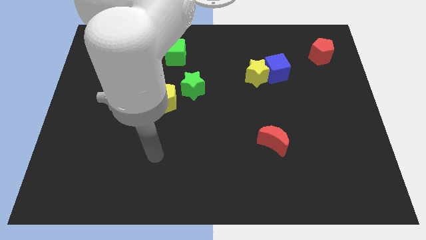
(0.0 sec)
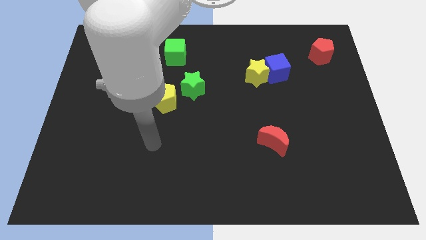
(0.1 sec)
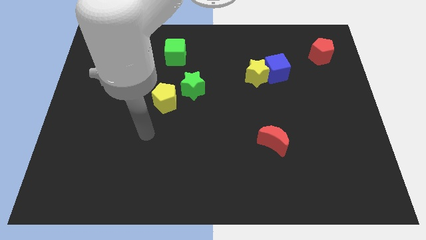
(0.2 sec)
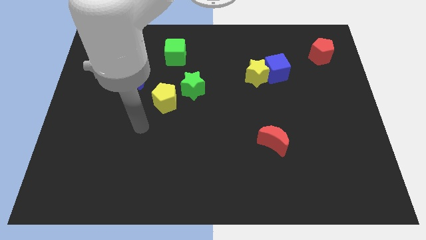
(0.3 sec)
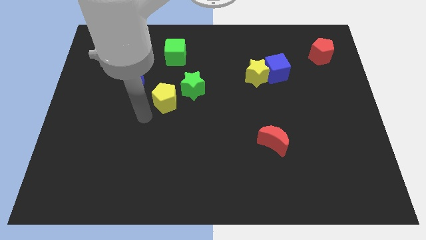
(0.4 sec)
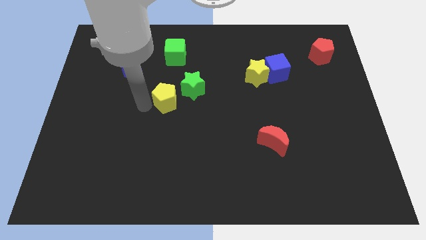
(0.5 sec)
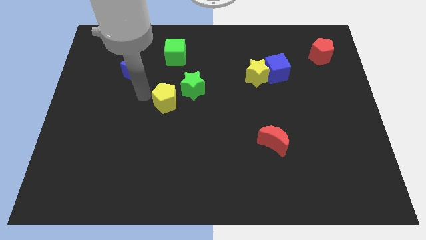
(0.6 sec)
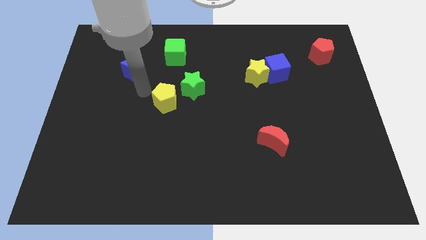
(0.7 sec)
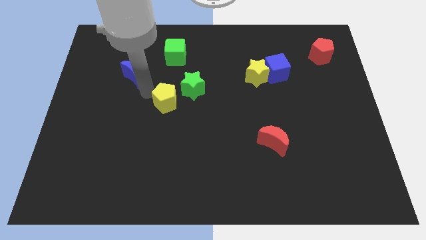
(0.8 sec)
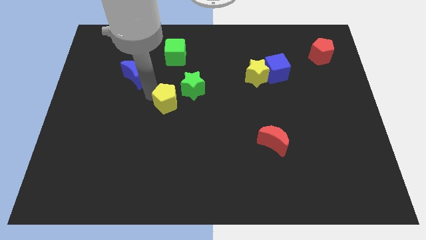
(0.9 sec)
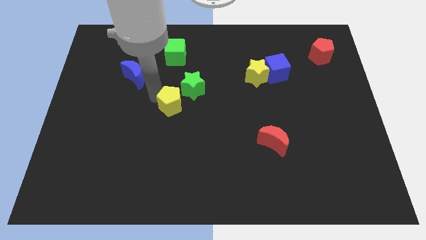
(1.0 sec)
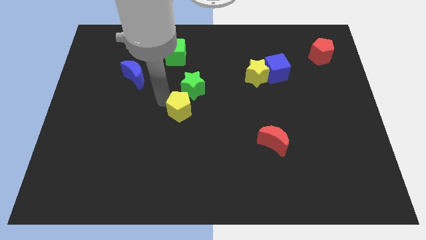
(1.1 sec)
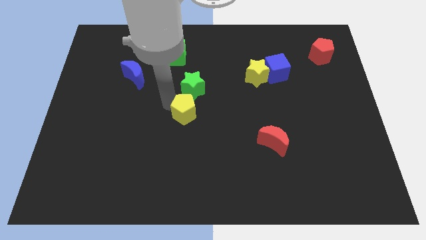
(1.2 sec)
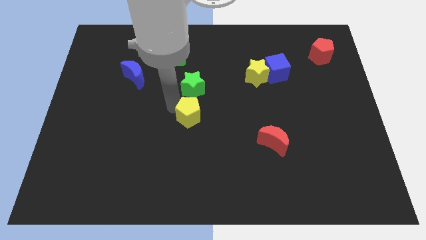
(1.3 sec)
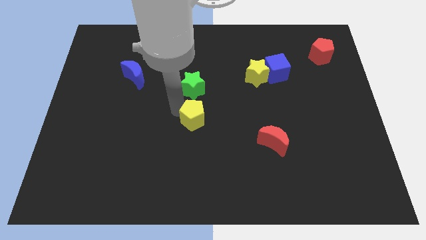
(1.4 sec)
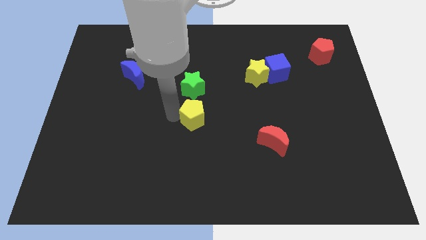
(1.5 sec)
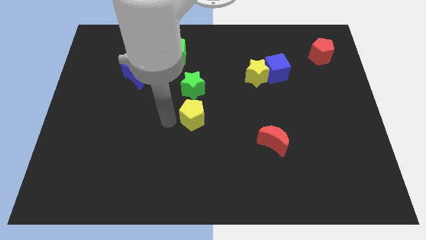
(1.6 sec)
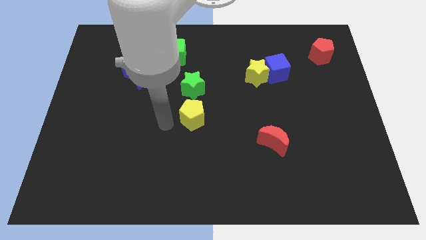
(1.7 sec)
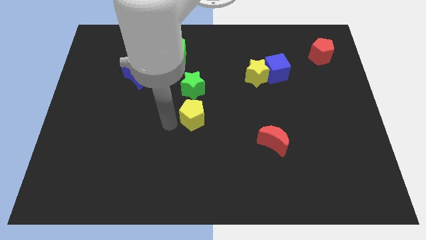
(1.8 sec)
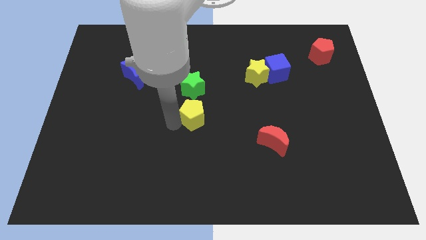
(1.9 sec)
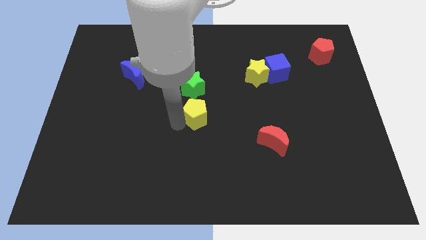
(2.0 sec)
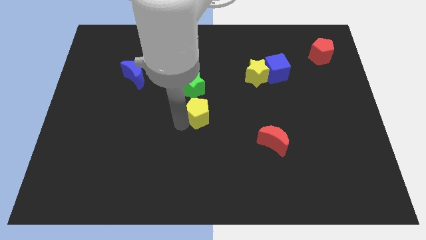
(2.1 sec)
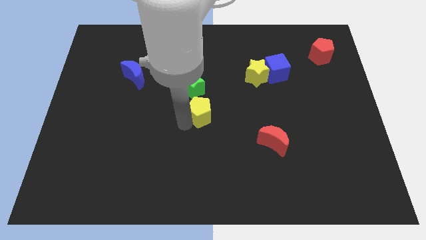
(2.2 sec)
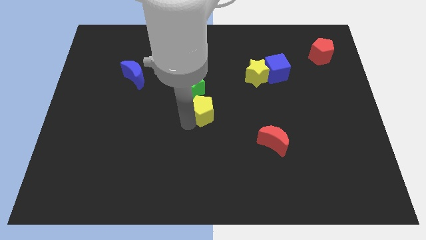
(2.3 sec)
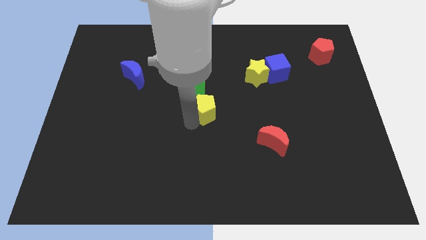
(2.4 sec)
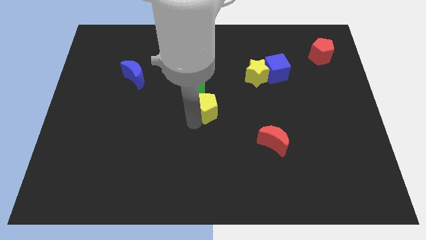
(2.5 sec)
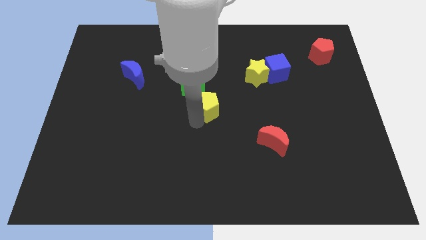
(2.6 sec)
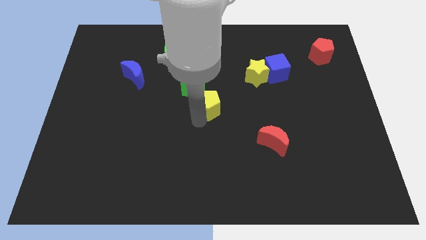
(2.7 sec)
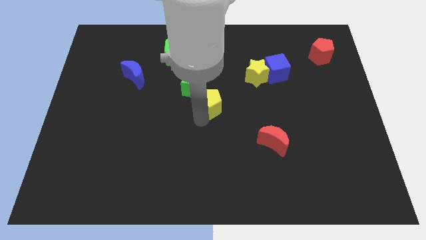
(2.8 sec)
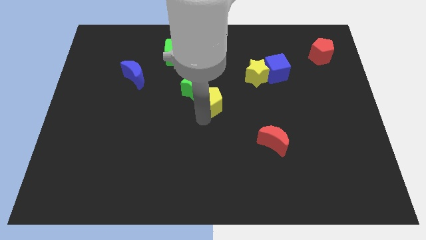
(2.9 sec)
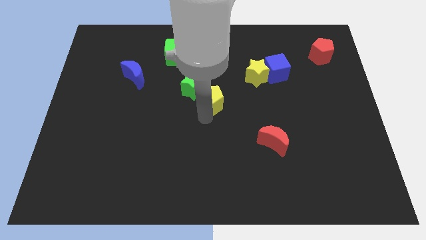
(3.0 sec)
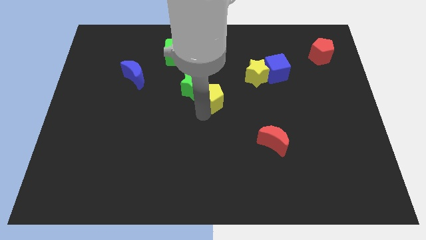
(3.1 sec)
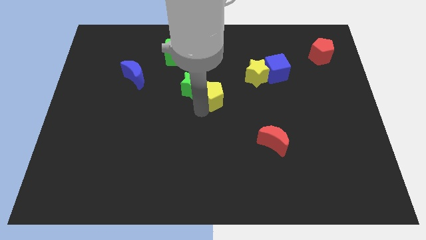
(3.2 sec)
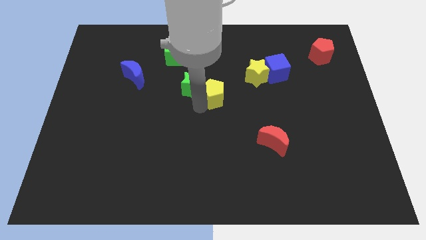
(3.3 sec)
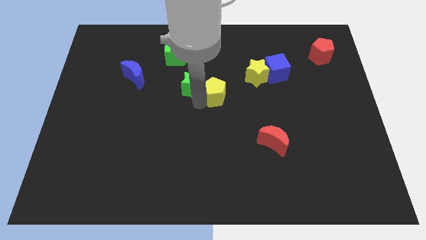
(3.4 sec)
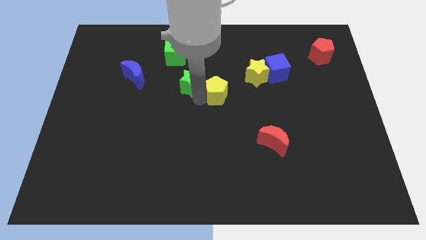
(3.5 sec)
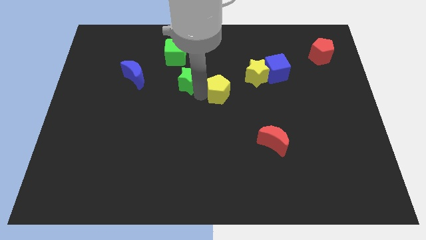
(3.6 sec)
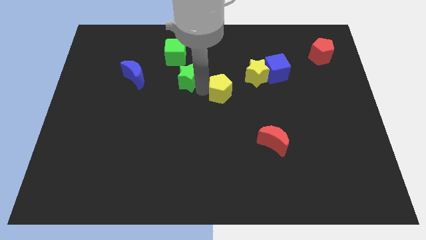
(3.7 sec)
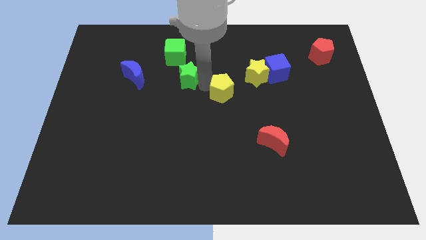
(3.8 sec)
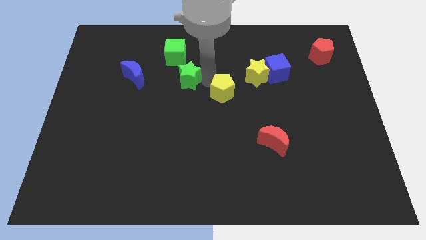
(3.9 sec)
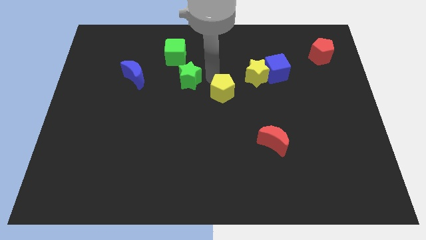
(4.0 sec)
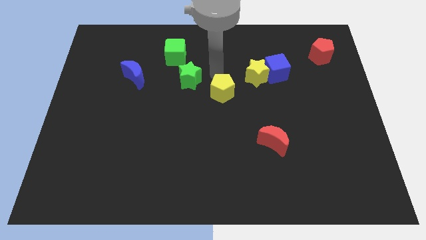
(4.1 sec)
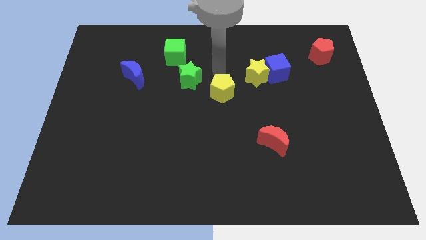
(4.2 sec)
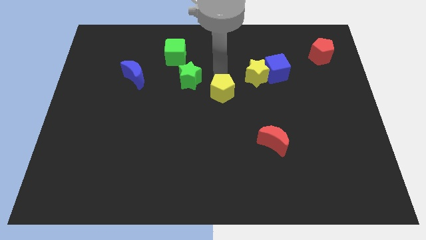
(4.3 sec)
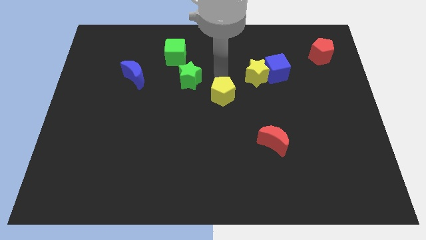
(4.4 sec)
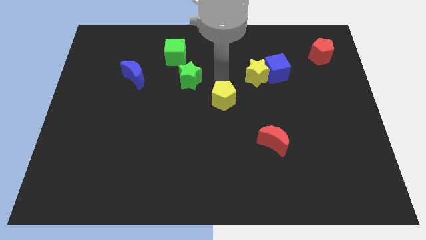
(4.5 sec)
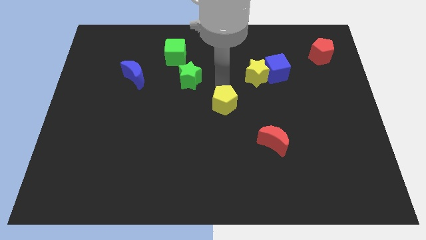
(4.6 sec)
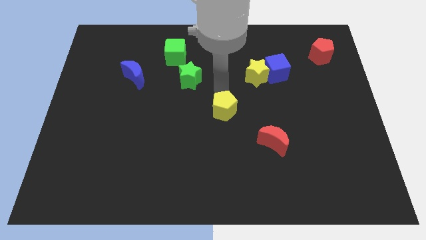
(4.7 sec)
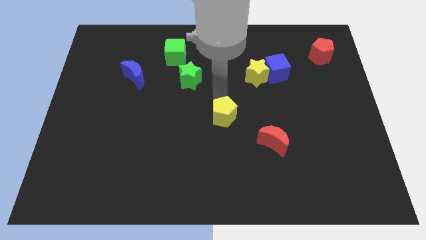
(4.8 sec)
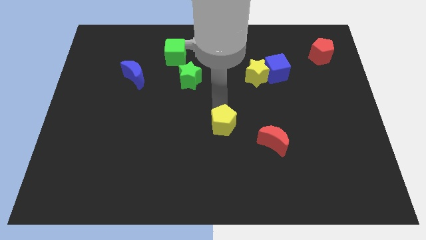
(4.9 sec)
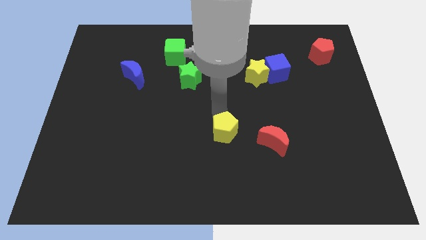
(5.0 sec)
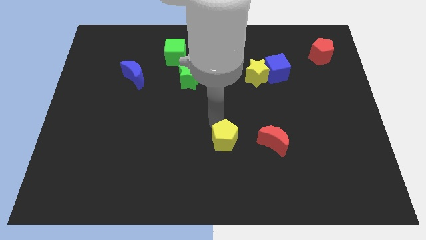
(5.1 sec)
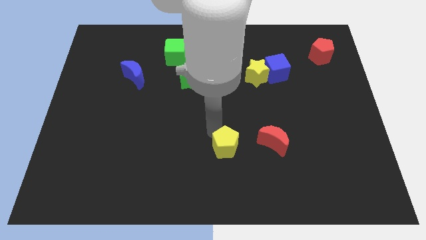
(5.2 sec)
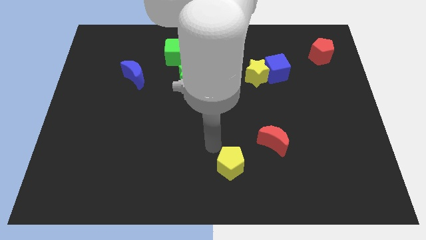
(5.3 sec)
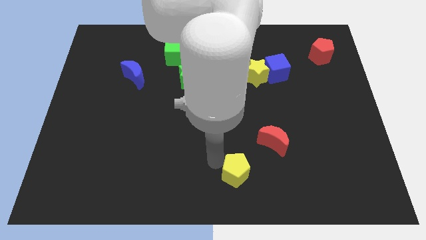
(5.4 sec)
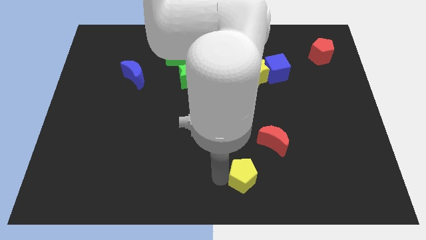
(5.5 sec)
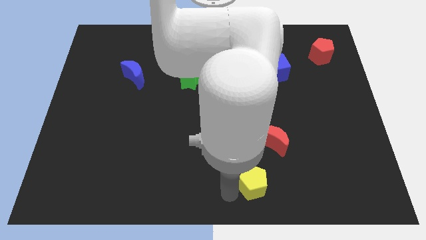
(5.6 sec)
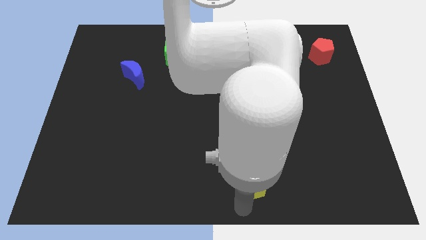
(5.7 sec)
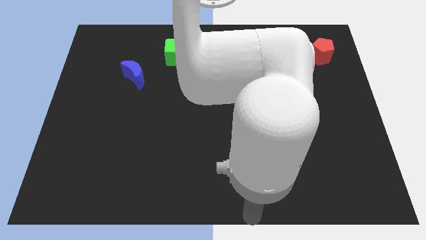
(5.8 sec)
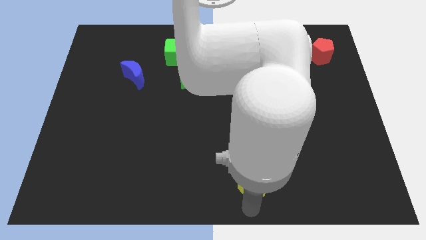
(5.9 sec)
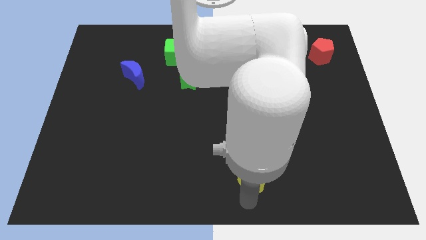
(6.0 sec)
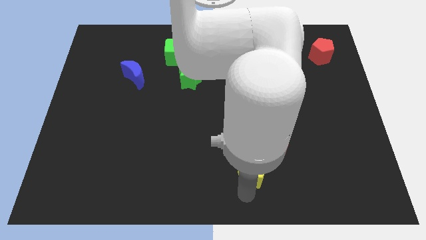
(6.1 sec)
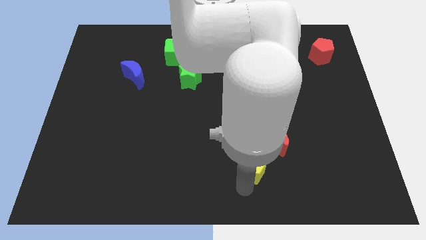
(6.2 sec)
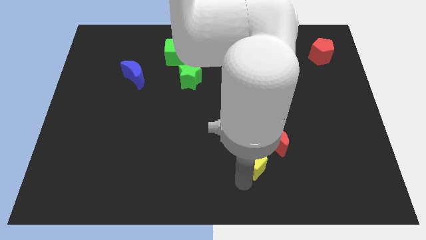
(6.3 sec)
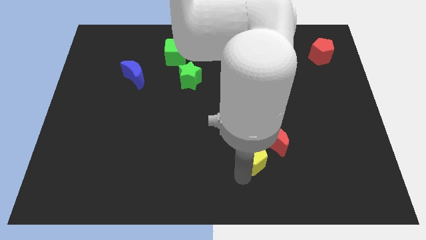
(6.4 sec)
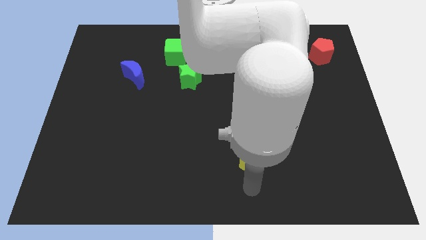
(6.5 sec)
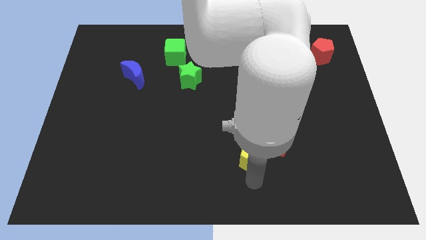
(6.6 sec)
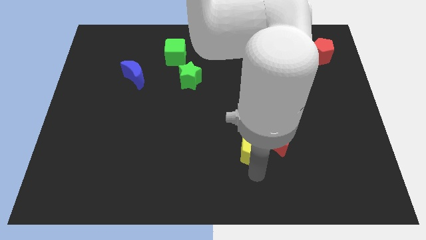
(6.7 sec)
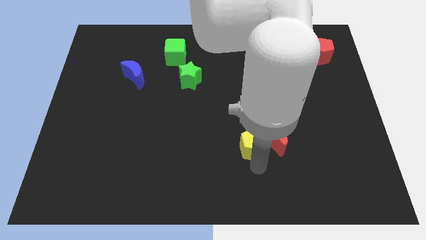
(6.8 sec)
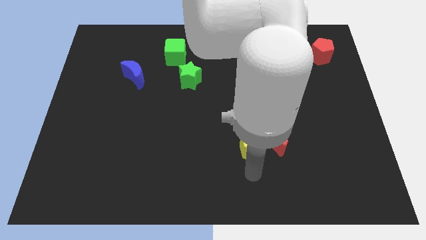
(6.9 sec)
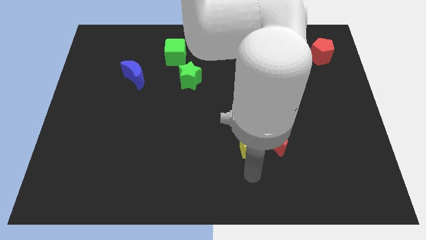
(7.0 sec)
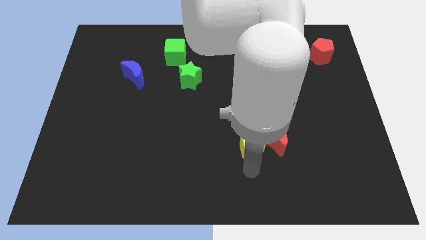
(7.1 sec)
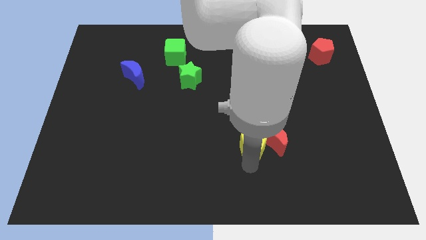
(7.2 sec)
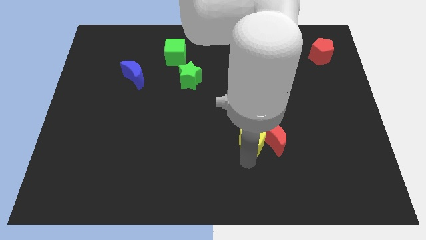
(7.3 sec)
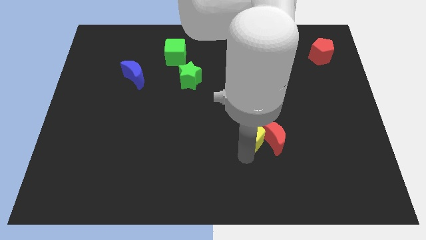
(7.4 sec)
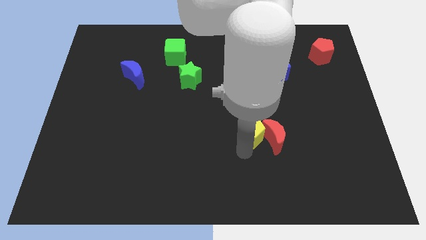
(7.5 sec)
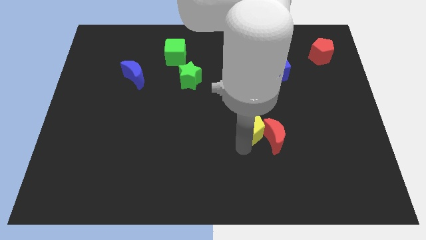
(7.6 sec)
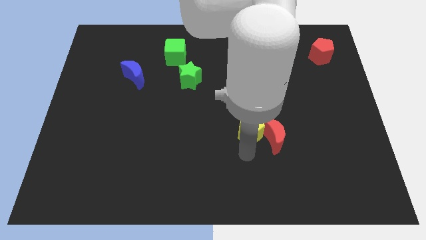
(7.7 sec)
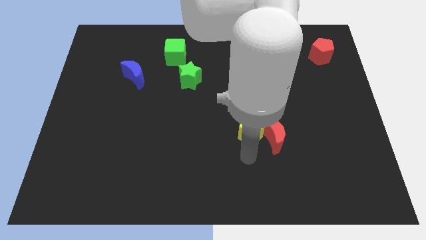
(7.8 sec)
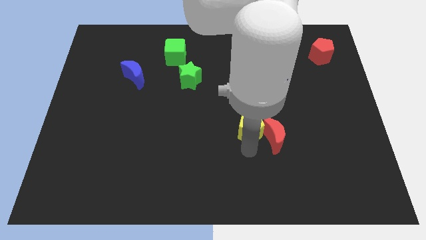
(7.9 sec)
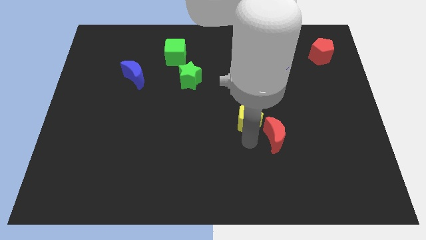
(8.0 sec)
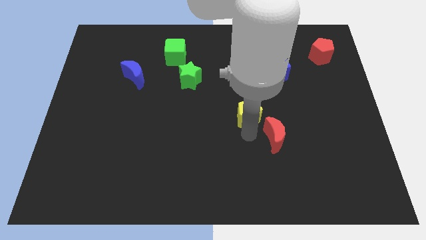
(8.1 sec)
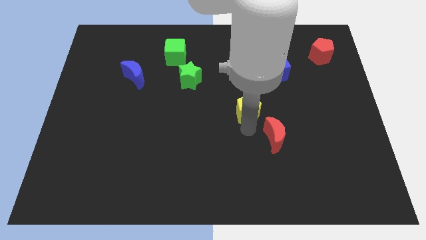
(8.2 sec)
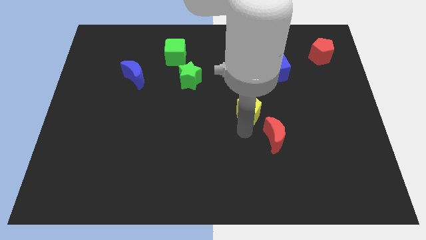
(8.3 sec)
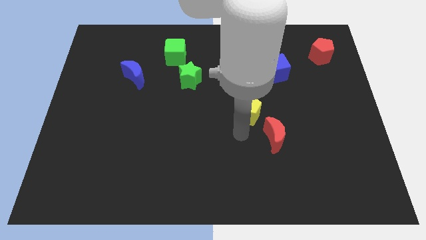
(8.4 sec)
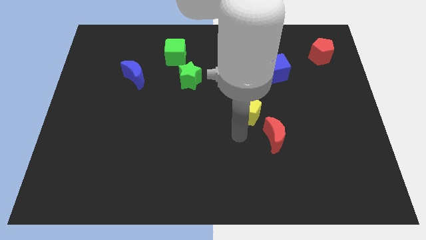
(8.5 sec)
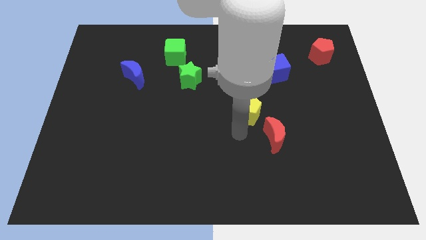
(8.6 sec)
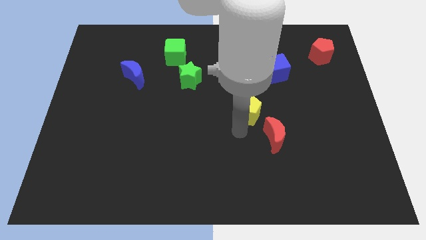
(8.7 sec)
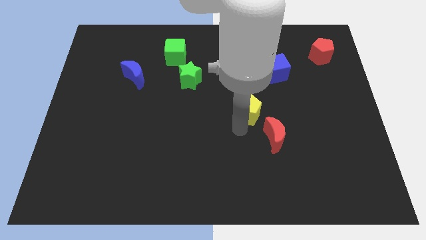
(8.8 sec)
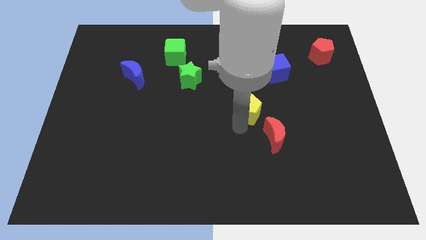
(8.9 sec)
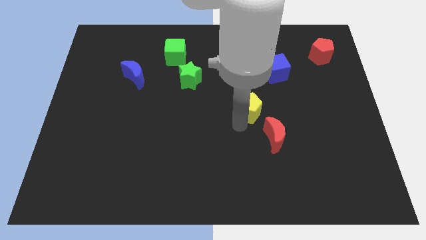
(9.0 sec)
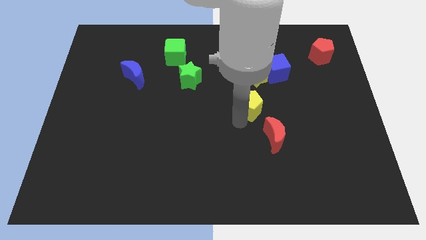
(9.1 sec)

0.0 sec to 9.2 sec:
push the yellow pentagon to the right
